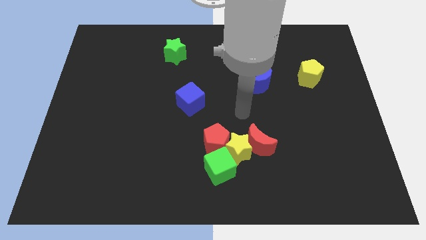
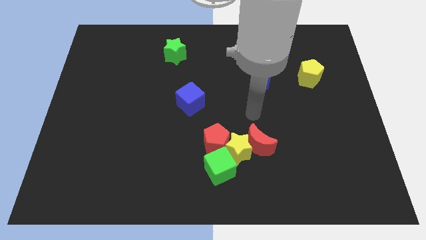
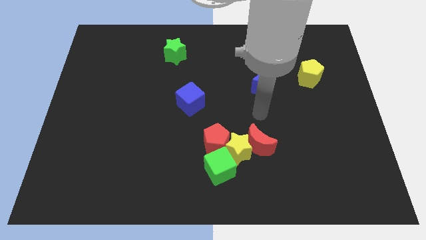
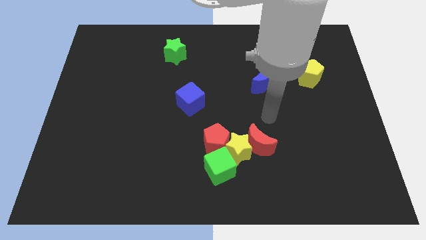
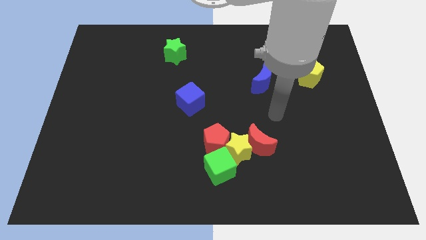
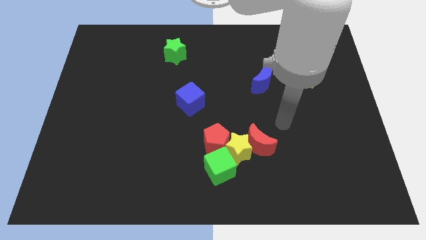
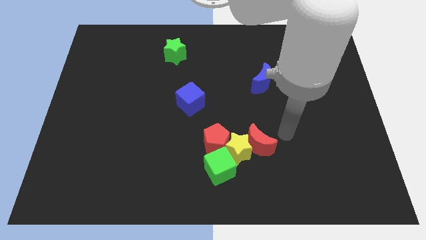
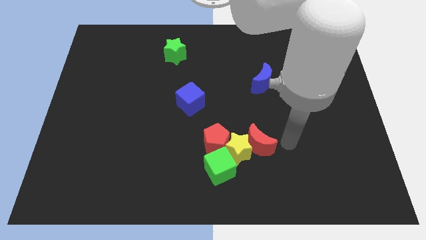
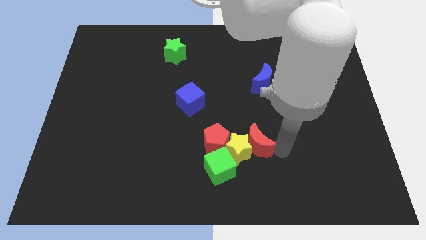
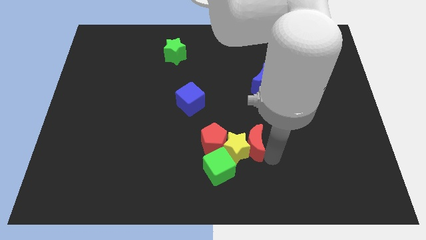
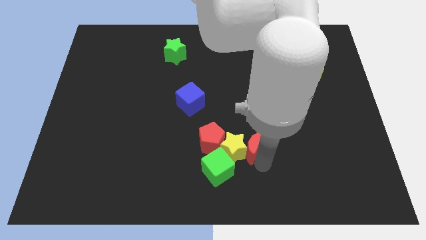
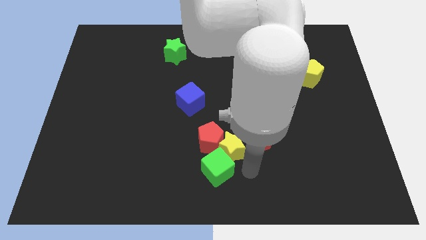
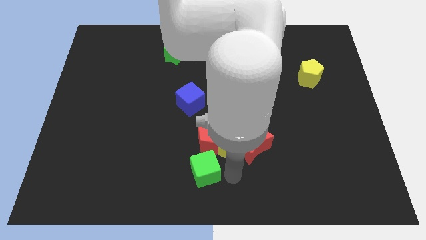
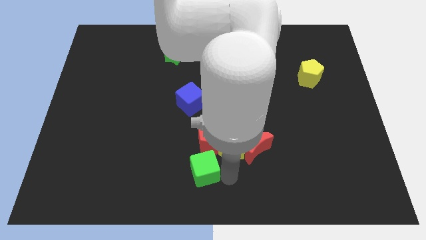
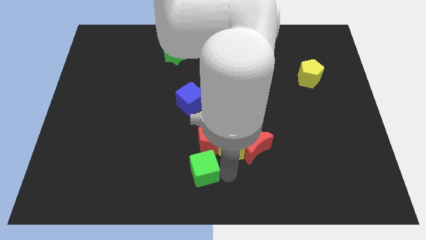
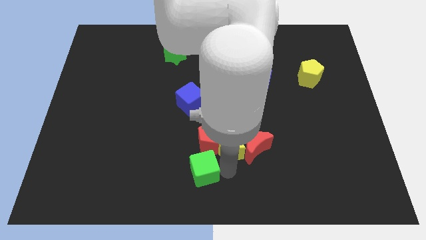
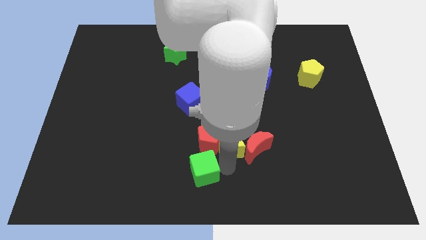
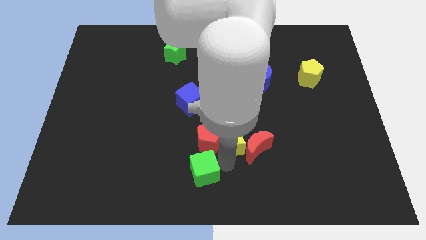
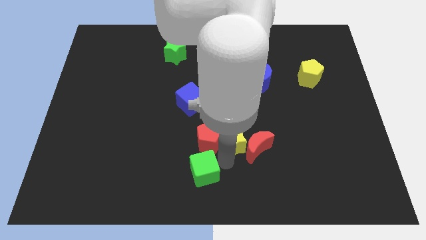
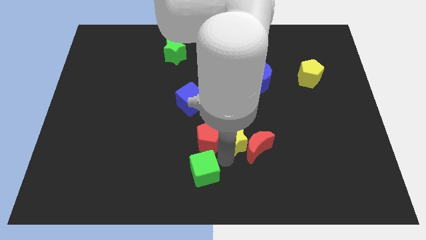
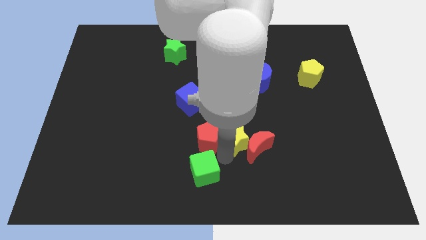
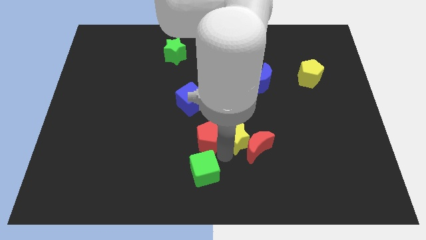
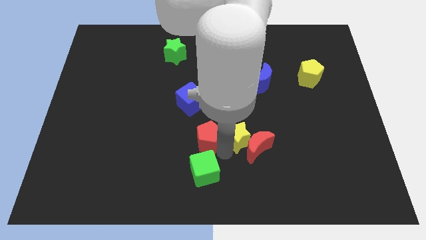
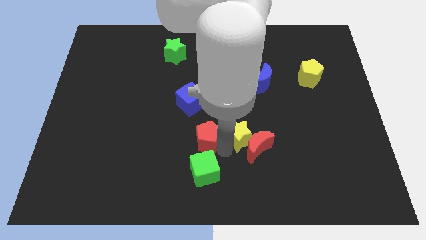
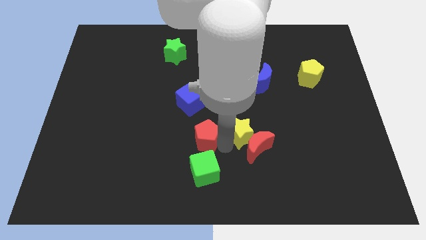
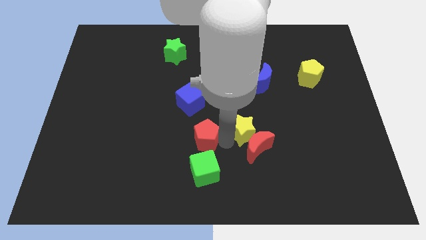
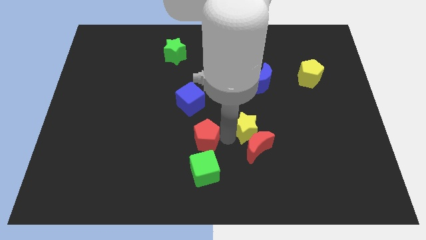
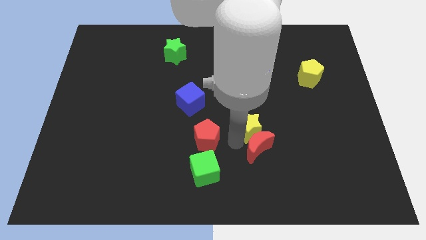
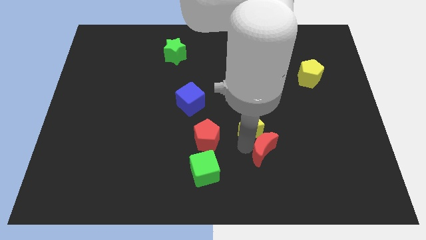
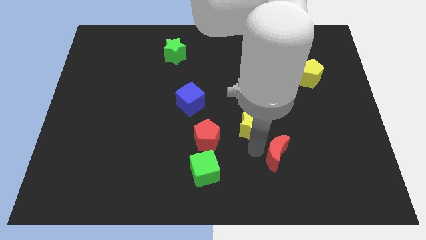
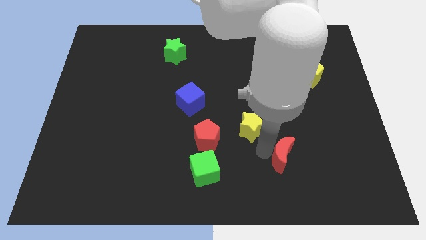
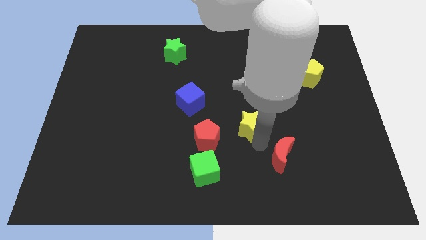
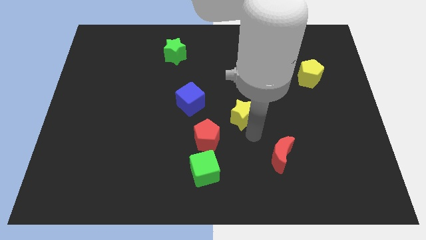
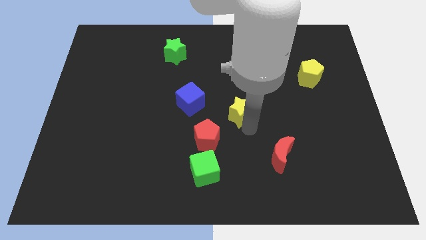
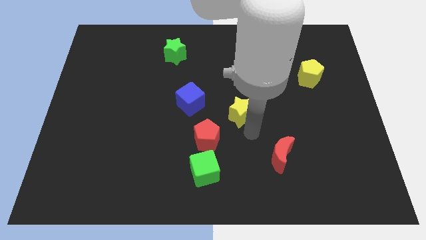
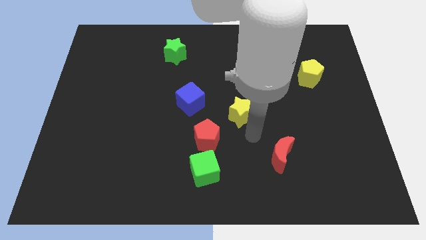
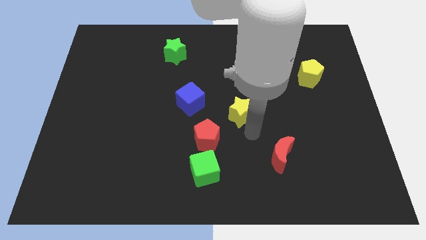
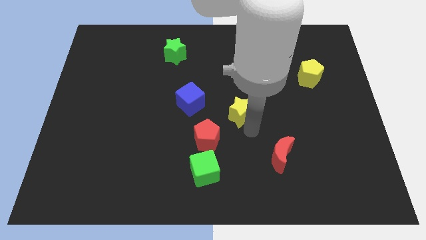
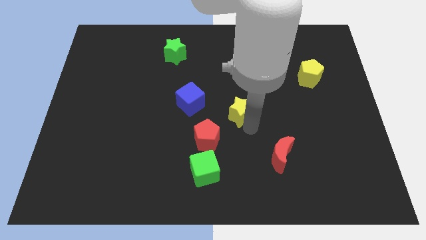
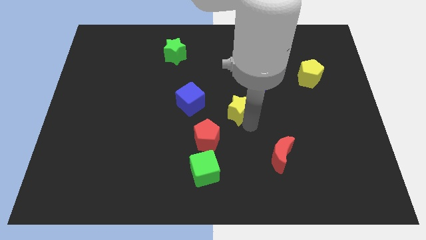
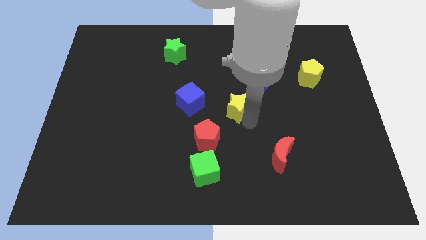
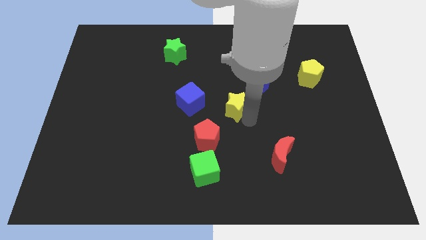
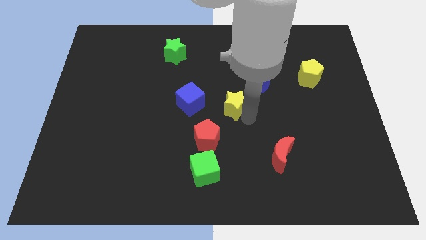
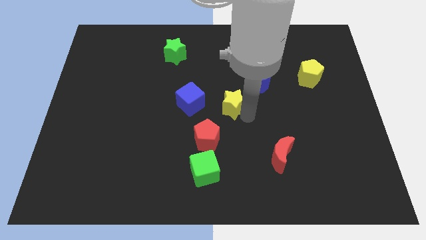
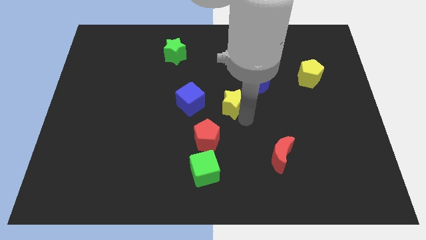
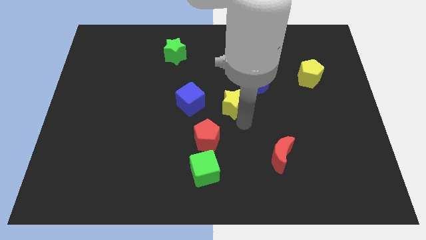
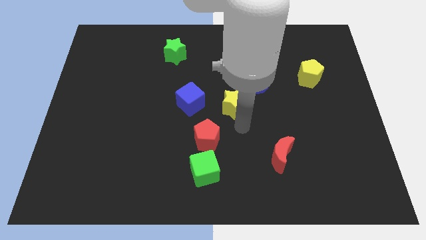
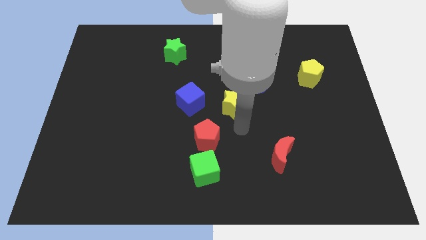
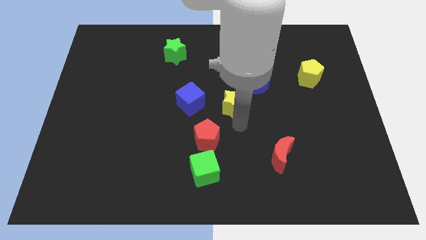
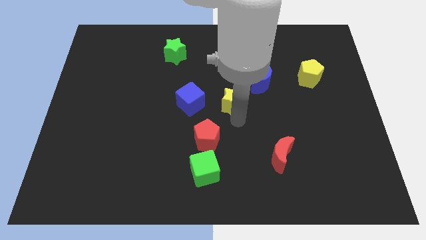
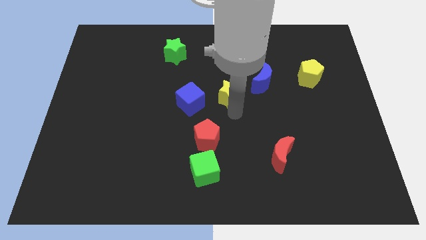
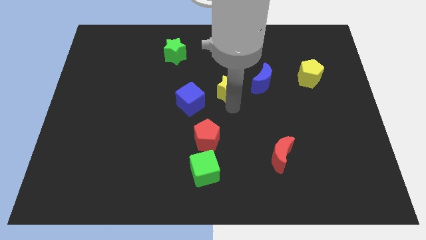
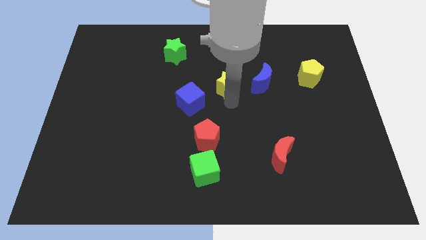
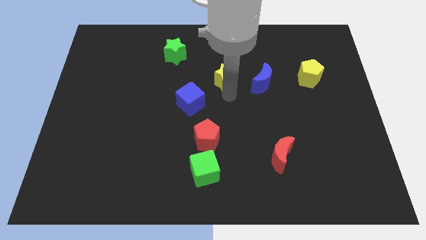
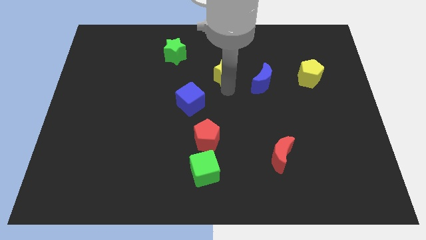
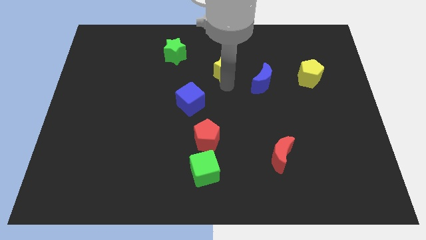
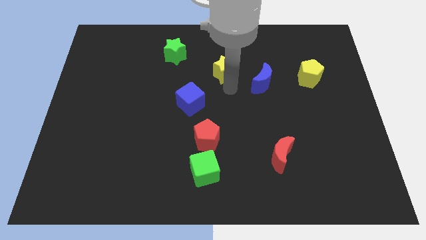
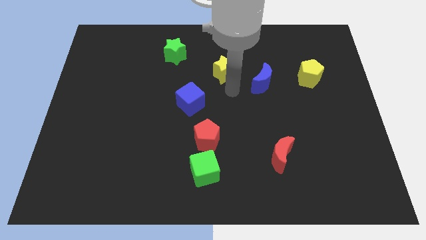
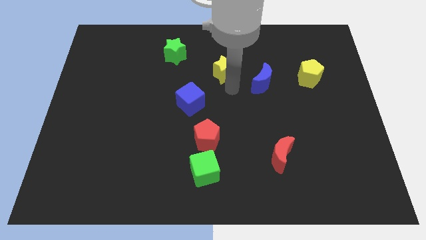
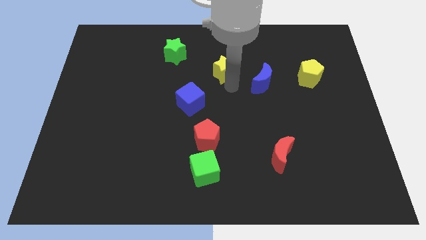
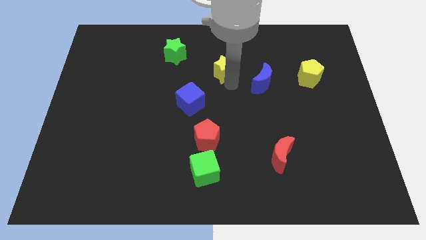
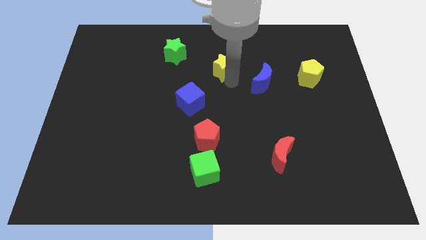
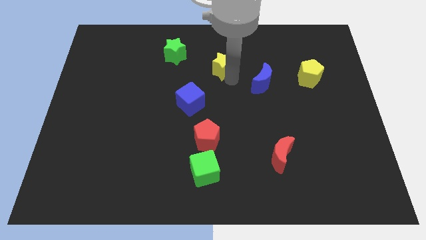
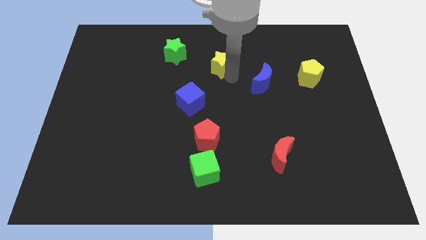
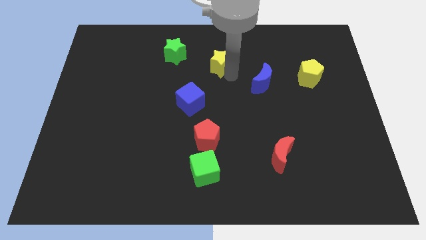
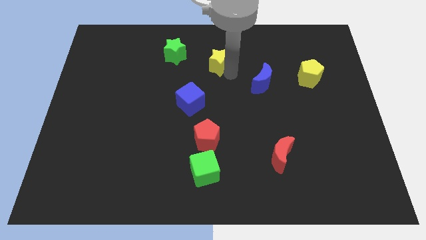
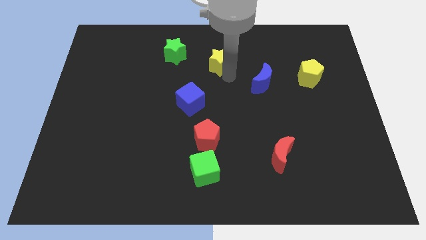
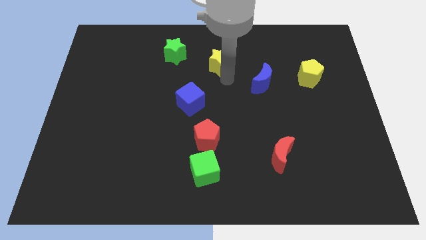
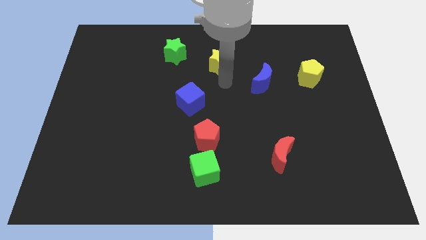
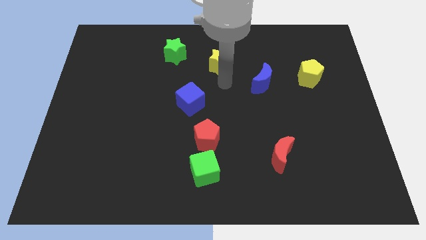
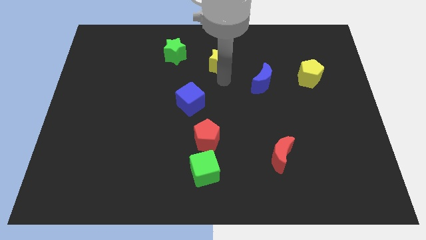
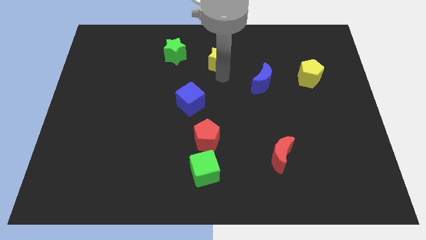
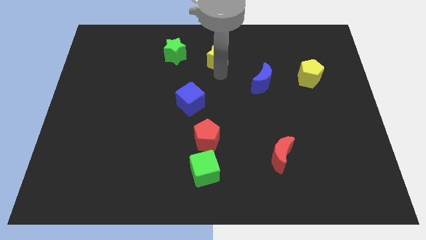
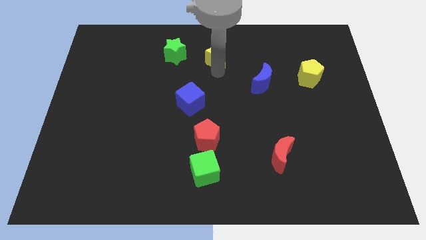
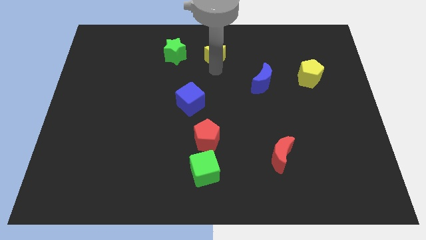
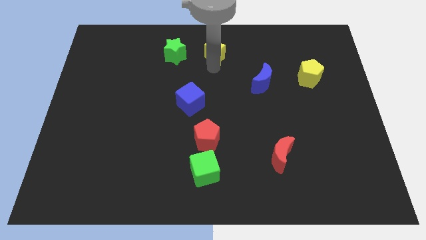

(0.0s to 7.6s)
move the yellow star to the top
